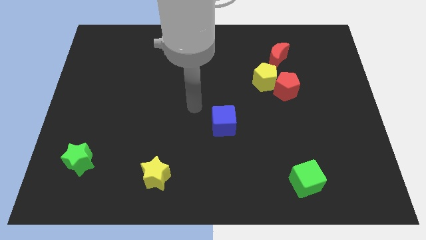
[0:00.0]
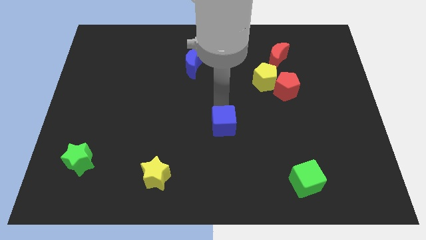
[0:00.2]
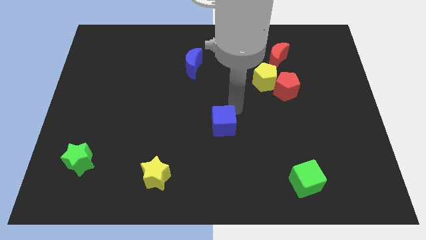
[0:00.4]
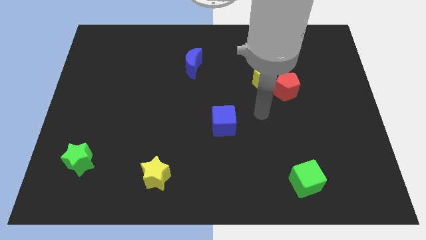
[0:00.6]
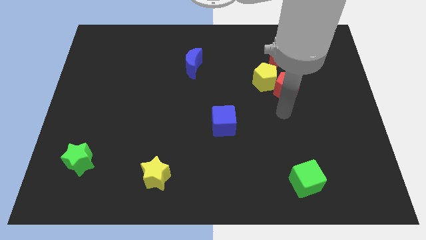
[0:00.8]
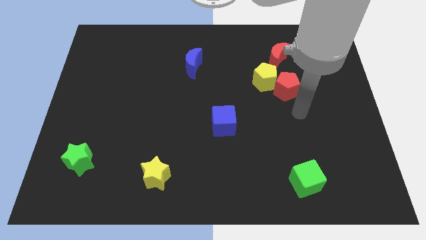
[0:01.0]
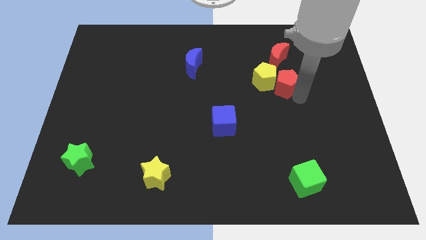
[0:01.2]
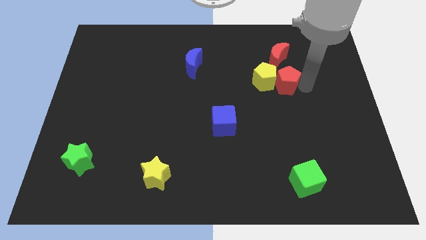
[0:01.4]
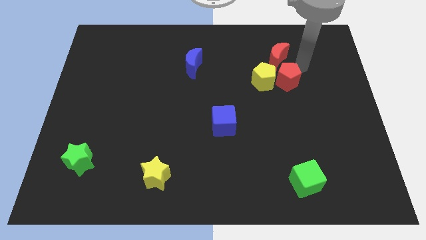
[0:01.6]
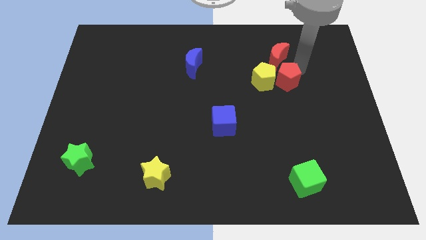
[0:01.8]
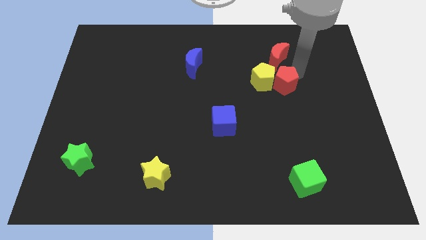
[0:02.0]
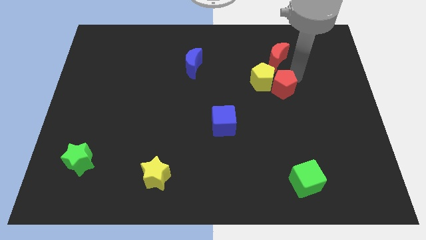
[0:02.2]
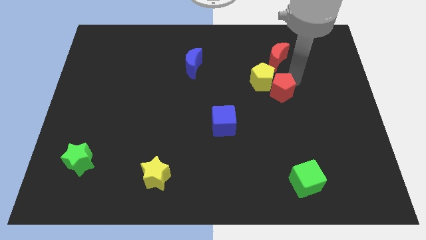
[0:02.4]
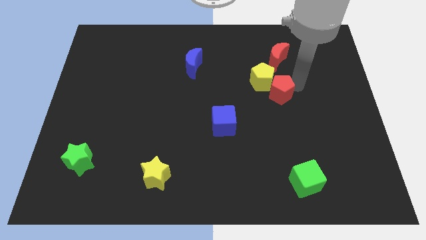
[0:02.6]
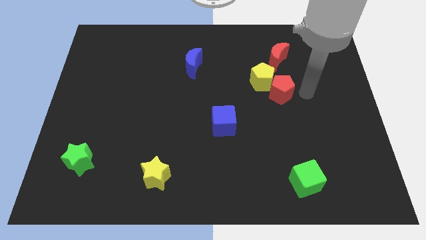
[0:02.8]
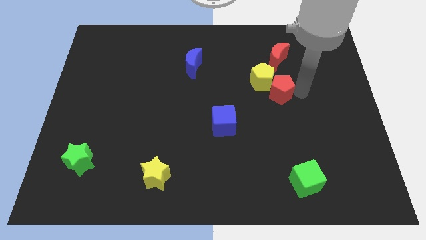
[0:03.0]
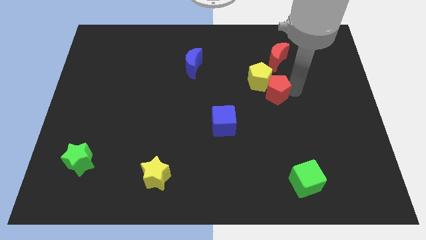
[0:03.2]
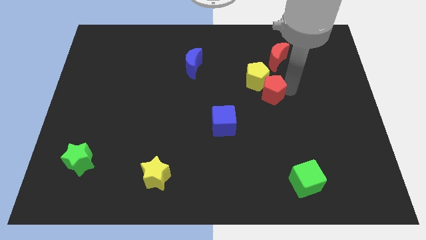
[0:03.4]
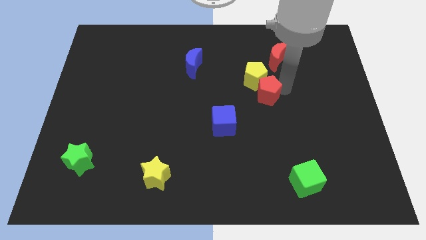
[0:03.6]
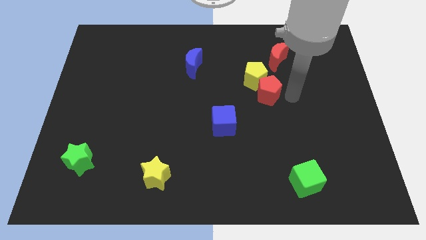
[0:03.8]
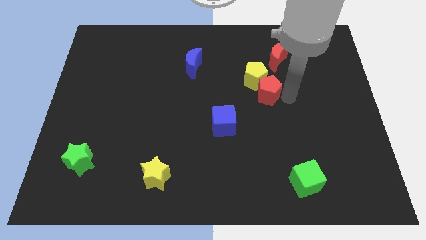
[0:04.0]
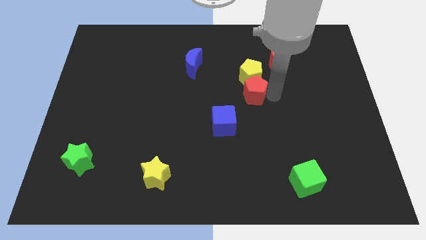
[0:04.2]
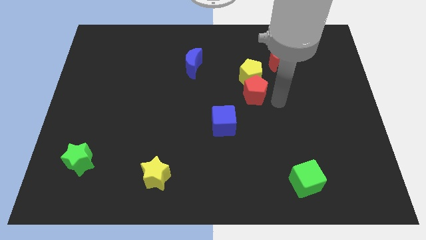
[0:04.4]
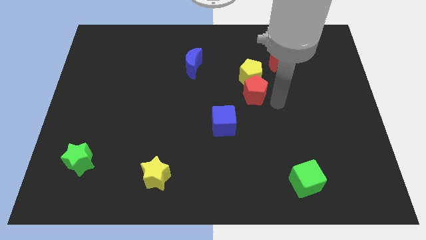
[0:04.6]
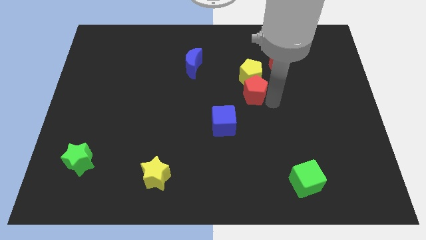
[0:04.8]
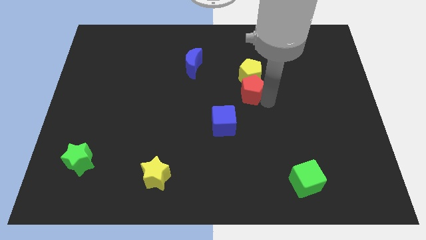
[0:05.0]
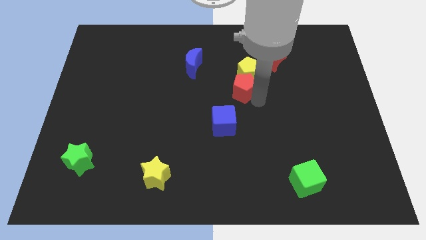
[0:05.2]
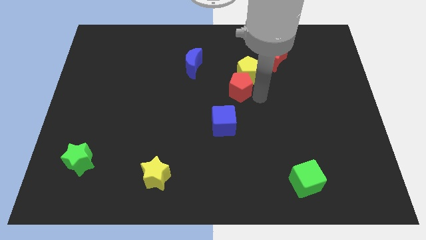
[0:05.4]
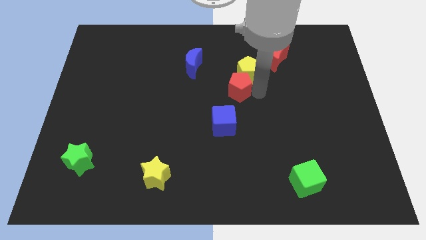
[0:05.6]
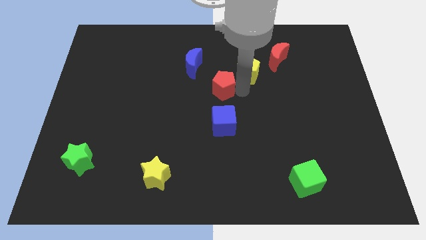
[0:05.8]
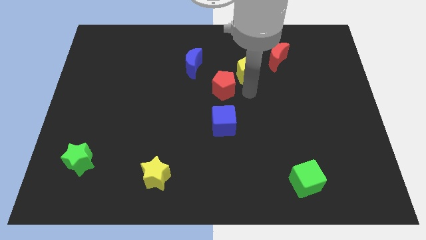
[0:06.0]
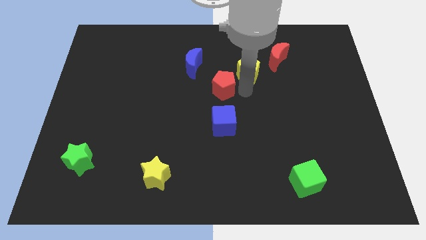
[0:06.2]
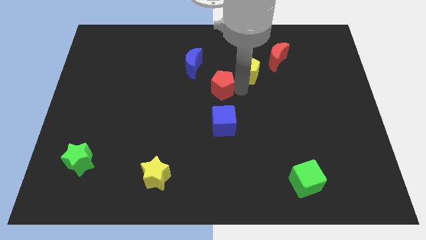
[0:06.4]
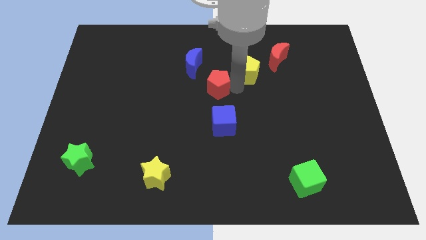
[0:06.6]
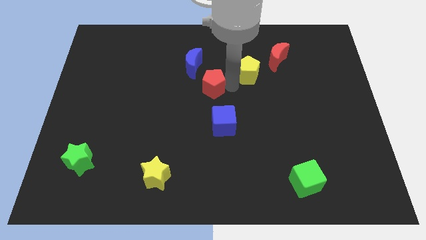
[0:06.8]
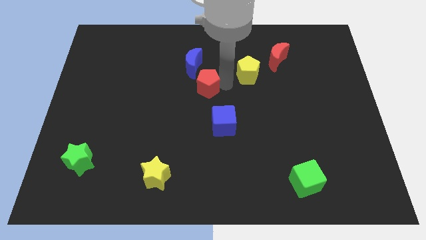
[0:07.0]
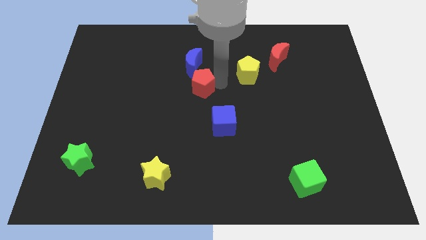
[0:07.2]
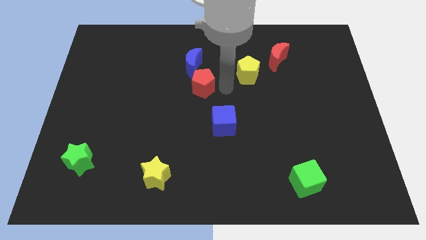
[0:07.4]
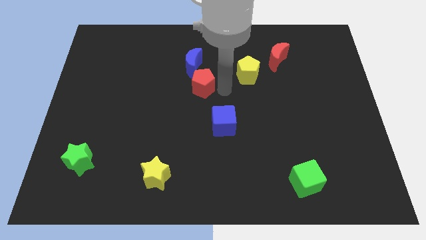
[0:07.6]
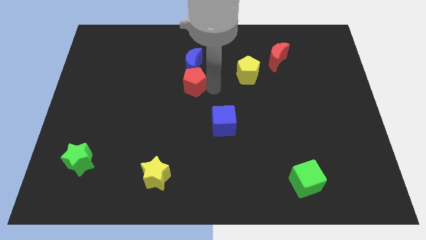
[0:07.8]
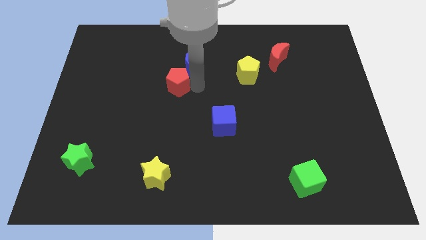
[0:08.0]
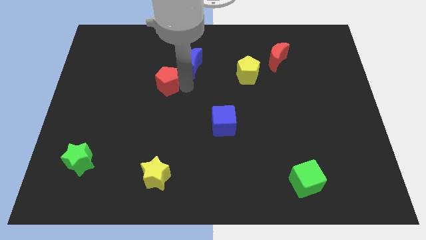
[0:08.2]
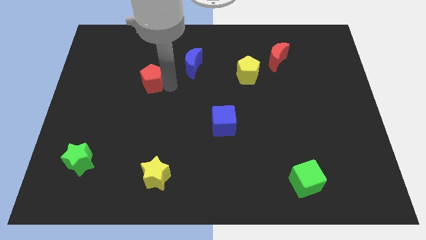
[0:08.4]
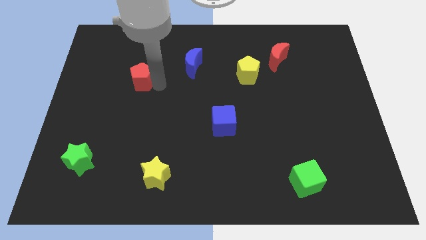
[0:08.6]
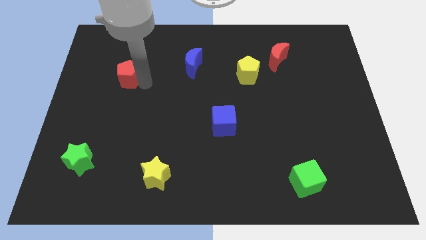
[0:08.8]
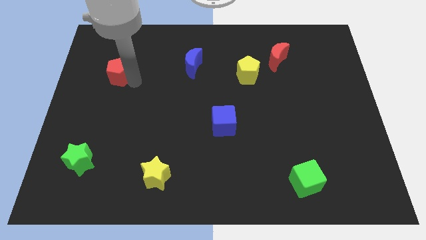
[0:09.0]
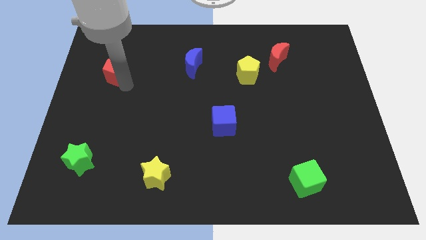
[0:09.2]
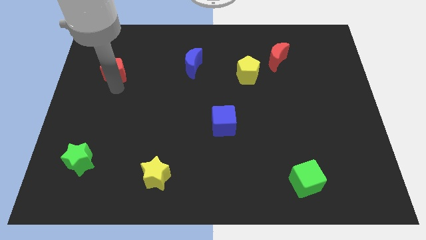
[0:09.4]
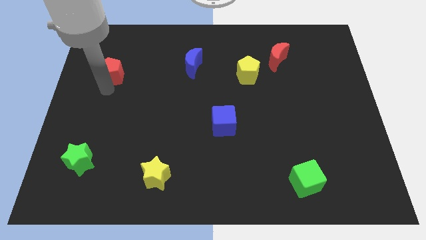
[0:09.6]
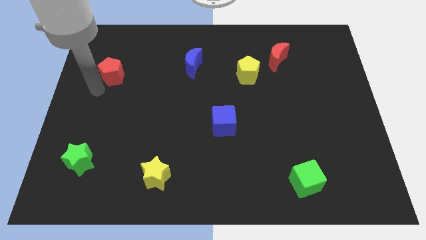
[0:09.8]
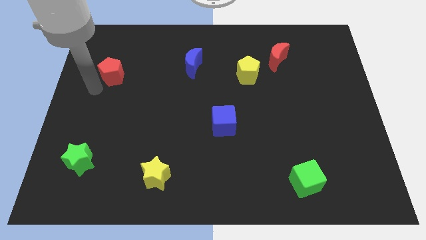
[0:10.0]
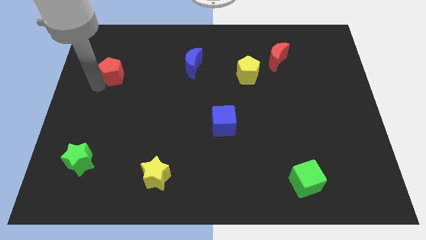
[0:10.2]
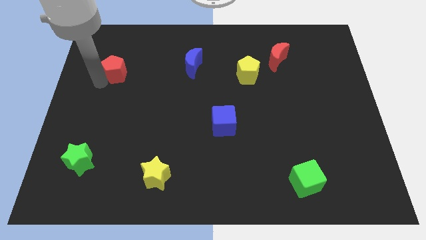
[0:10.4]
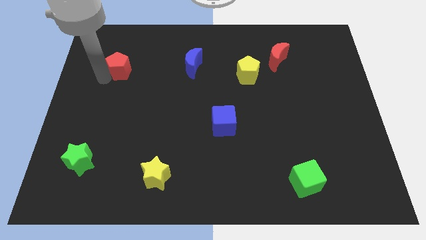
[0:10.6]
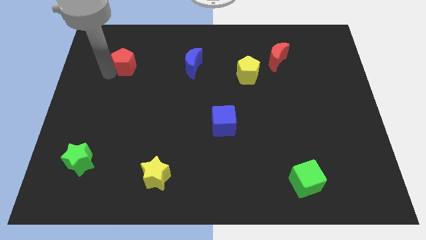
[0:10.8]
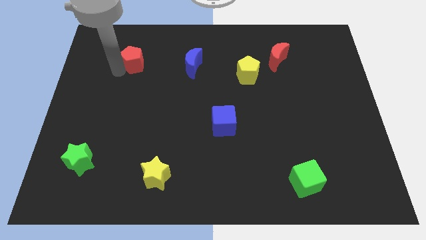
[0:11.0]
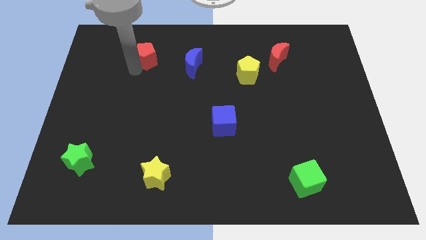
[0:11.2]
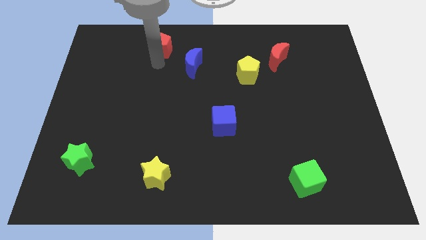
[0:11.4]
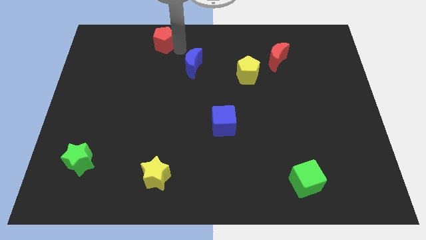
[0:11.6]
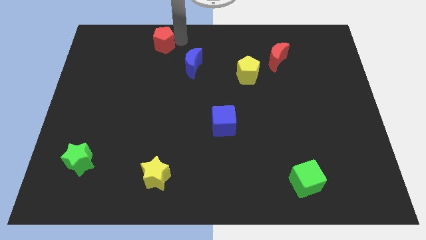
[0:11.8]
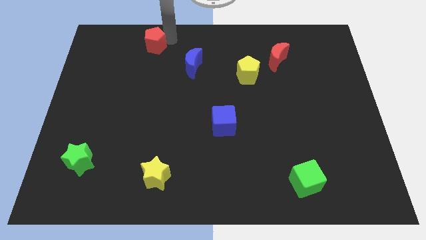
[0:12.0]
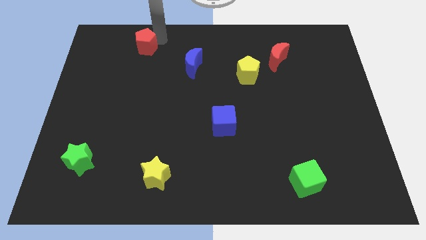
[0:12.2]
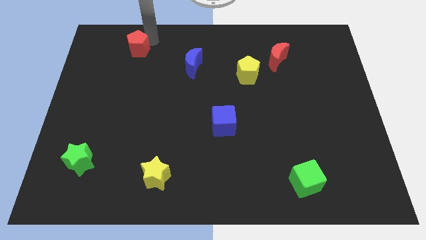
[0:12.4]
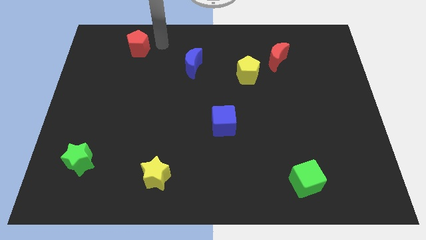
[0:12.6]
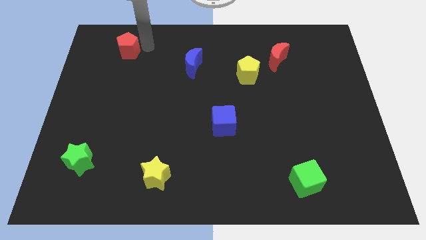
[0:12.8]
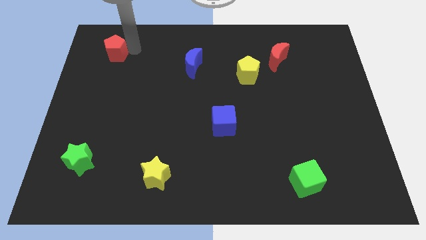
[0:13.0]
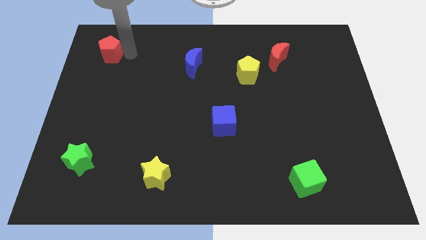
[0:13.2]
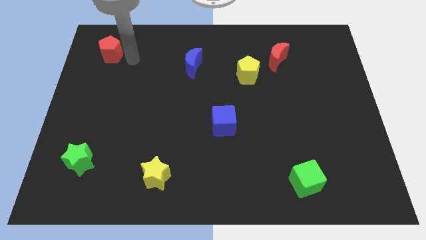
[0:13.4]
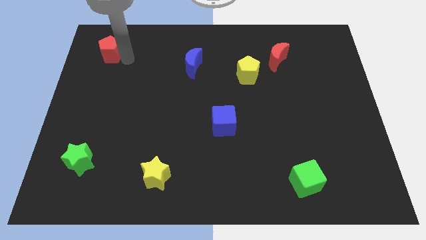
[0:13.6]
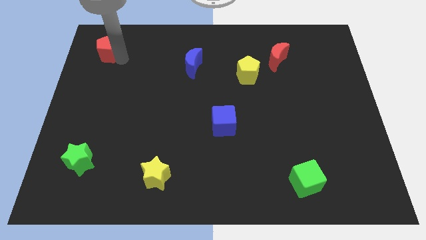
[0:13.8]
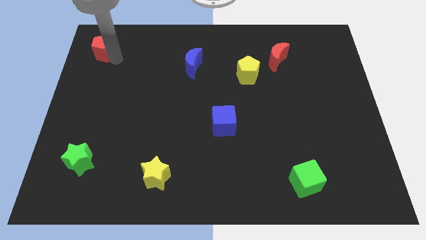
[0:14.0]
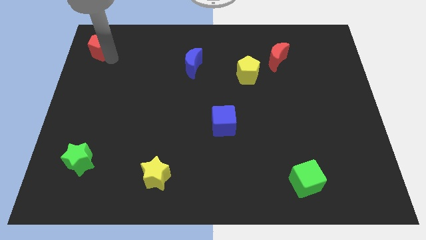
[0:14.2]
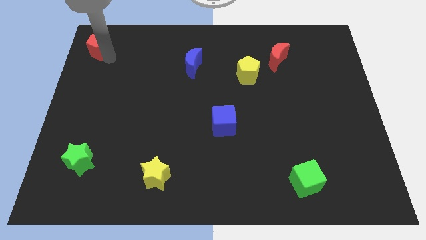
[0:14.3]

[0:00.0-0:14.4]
move the red pentagon to the top left corner
